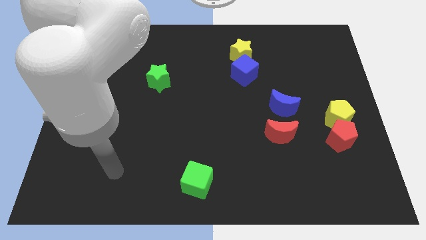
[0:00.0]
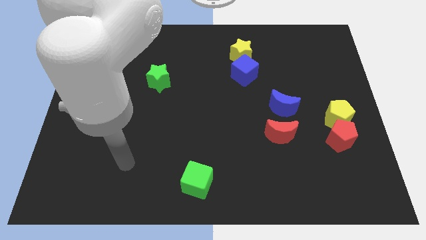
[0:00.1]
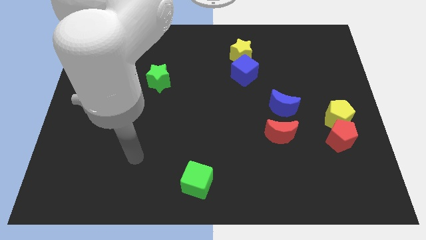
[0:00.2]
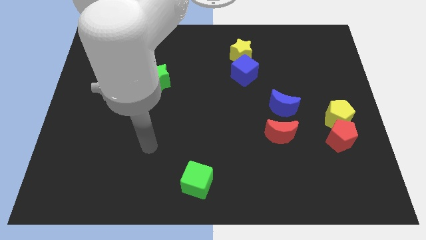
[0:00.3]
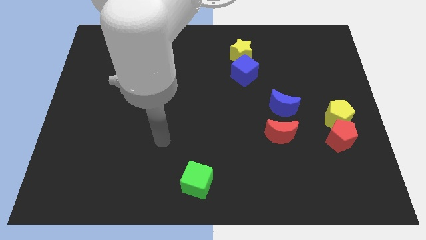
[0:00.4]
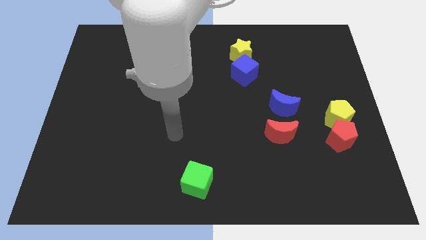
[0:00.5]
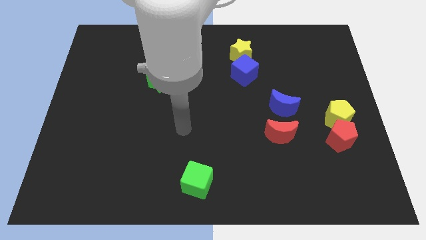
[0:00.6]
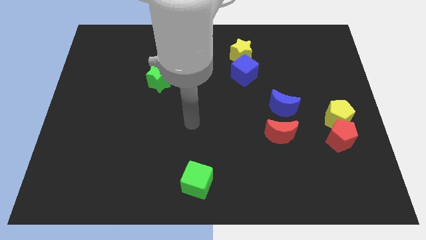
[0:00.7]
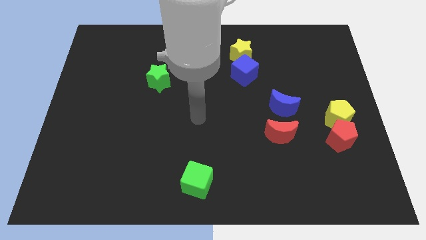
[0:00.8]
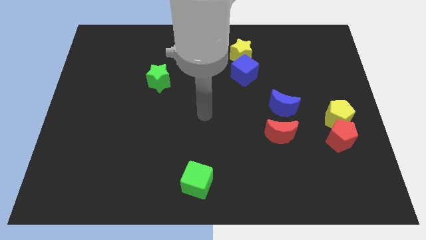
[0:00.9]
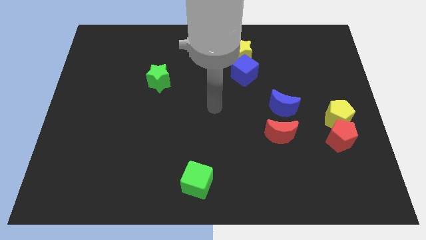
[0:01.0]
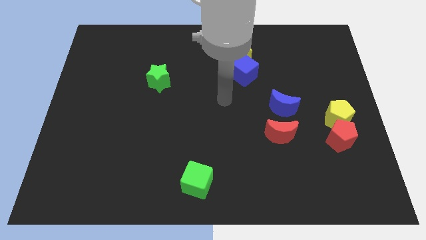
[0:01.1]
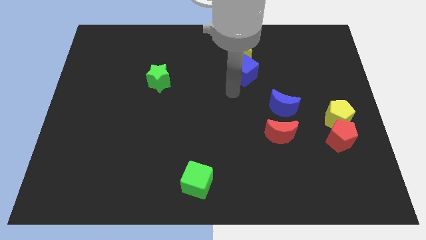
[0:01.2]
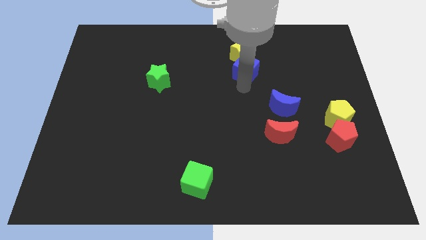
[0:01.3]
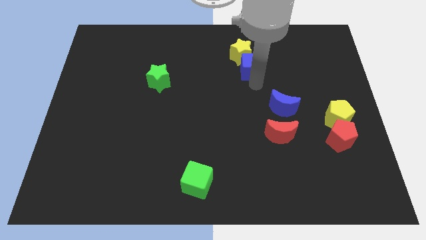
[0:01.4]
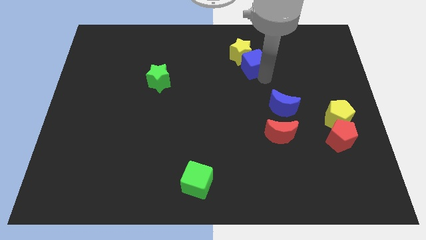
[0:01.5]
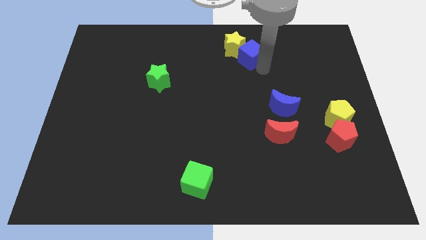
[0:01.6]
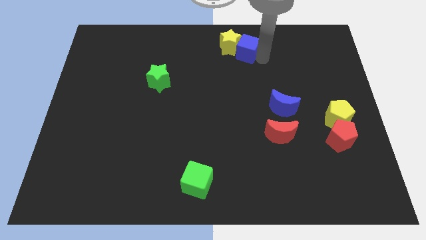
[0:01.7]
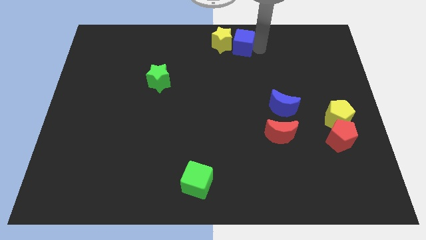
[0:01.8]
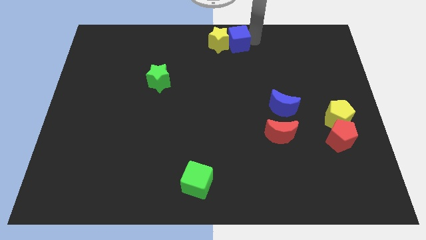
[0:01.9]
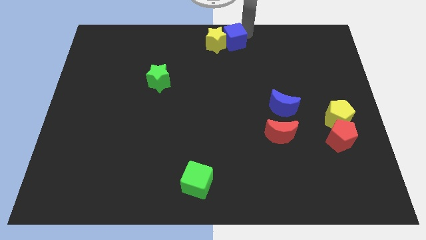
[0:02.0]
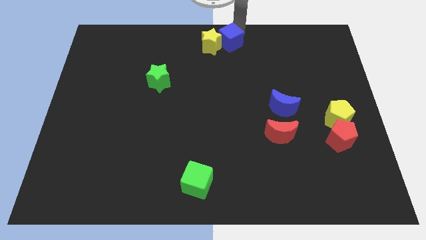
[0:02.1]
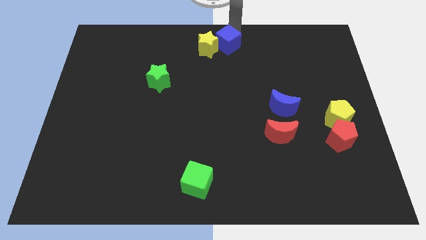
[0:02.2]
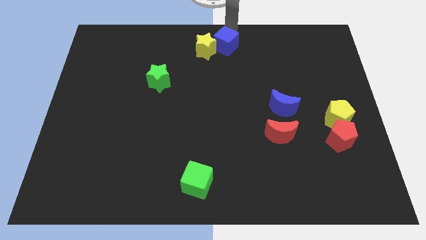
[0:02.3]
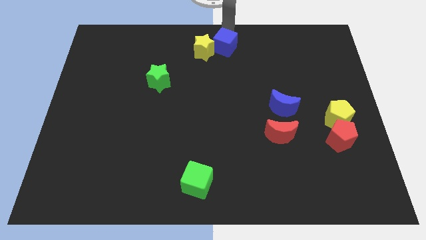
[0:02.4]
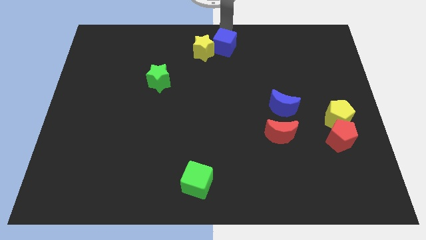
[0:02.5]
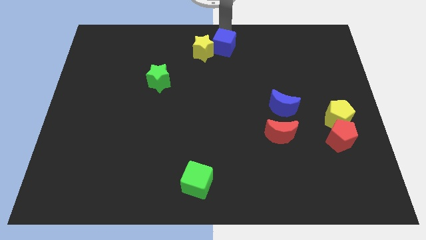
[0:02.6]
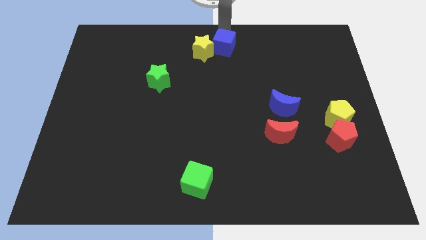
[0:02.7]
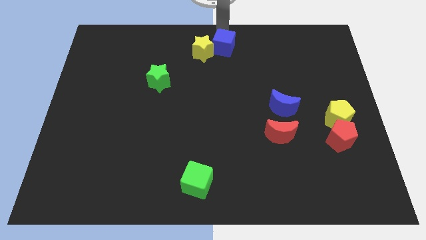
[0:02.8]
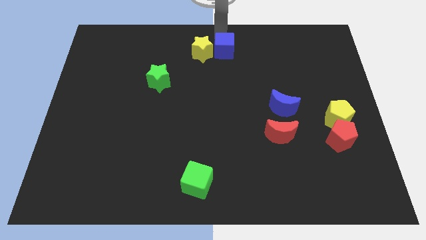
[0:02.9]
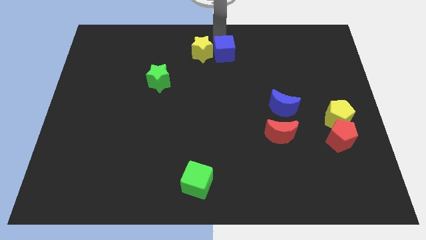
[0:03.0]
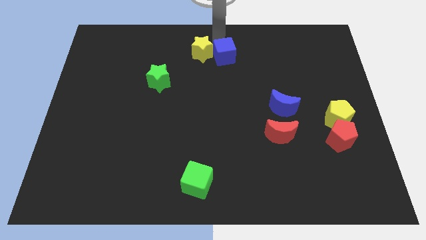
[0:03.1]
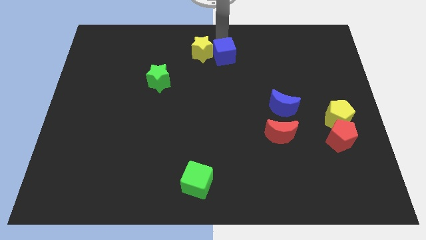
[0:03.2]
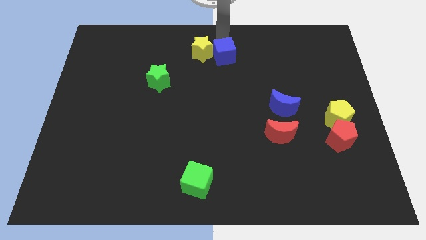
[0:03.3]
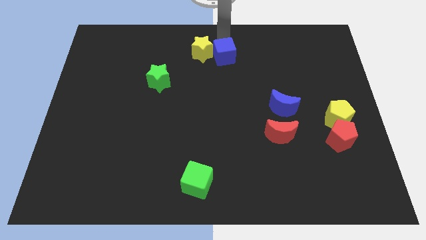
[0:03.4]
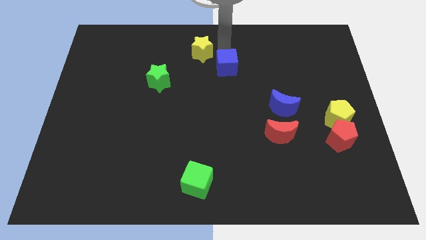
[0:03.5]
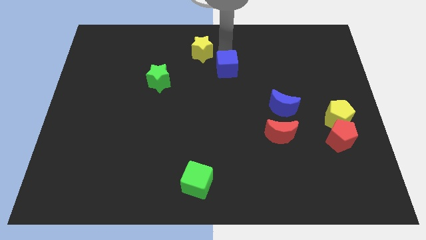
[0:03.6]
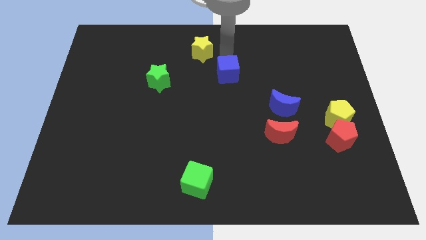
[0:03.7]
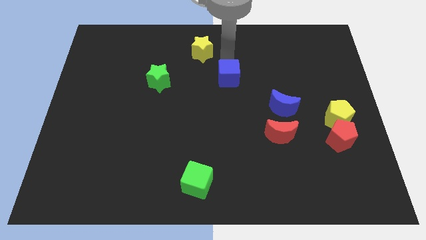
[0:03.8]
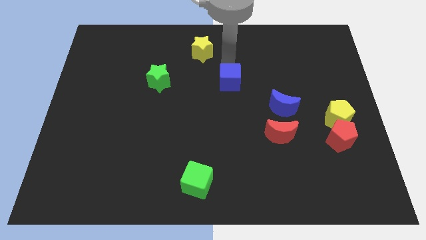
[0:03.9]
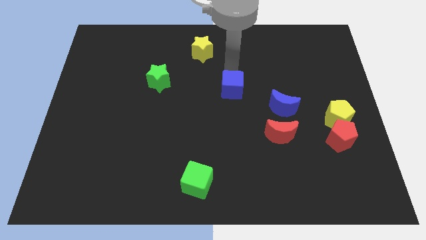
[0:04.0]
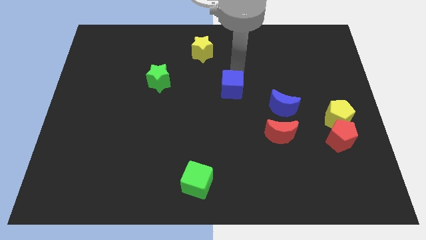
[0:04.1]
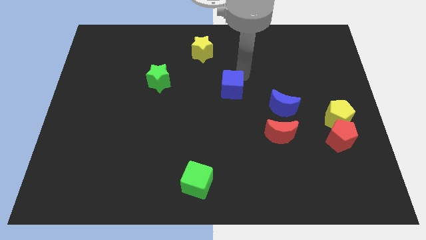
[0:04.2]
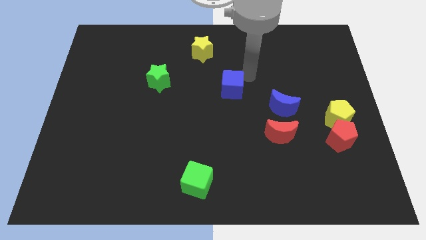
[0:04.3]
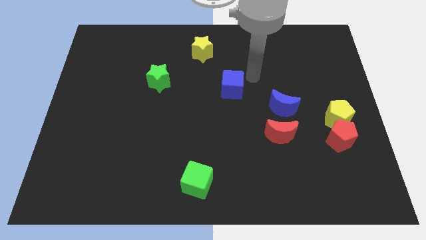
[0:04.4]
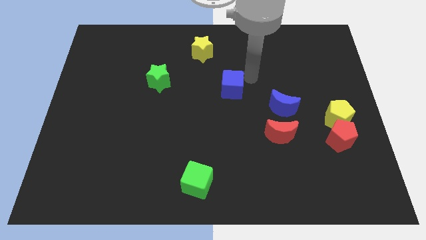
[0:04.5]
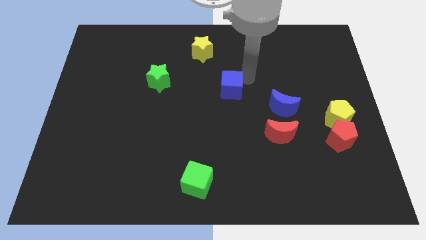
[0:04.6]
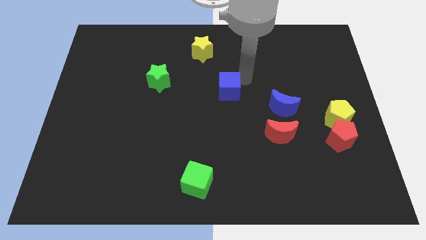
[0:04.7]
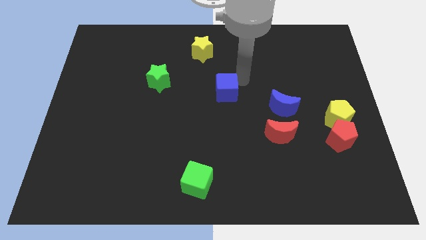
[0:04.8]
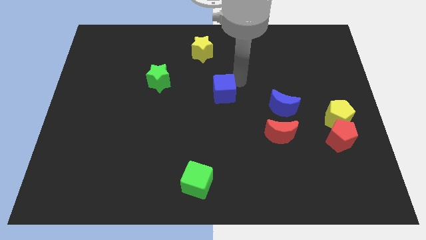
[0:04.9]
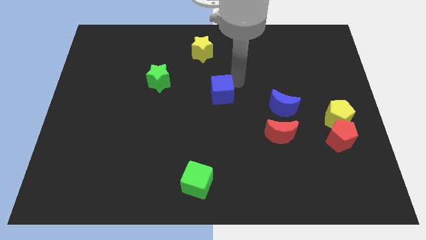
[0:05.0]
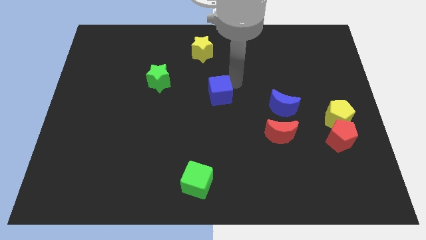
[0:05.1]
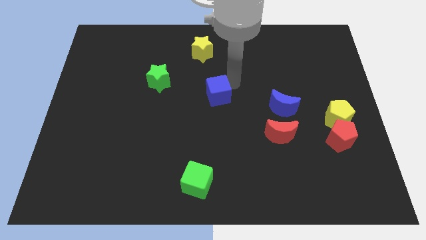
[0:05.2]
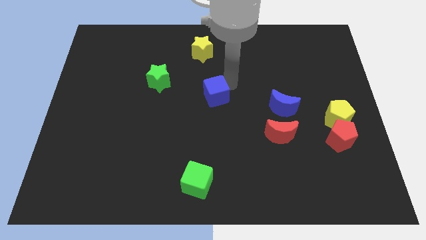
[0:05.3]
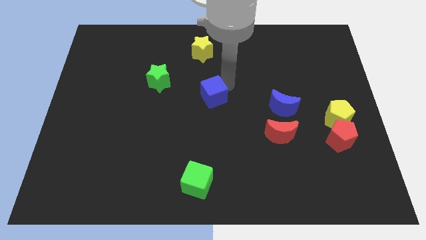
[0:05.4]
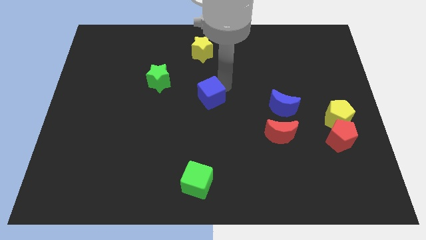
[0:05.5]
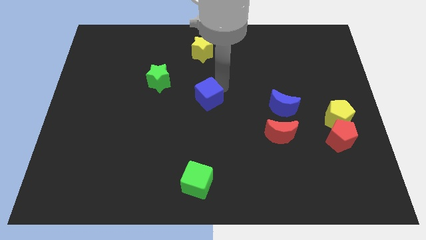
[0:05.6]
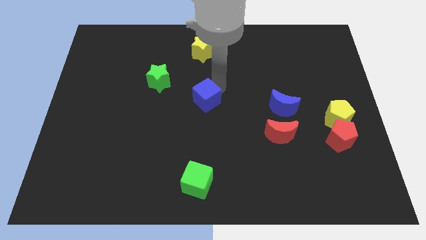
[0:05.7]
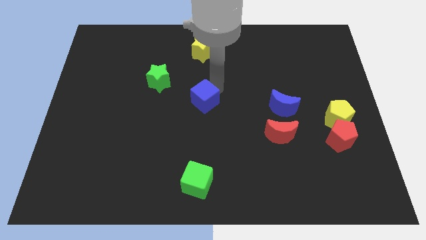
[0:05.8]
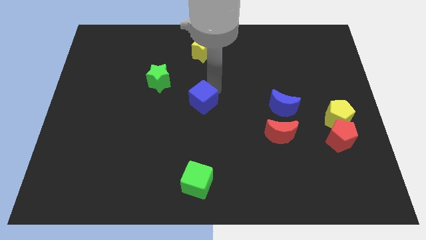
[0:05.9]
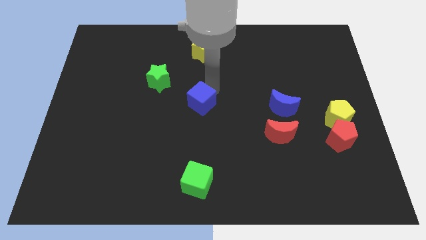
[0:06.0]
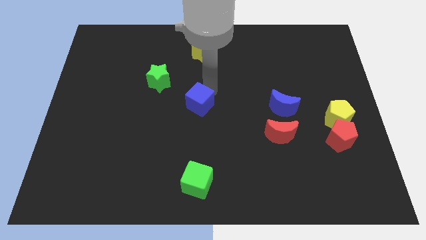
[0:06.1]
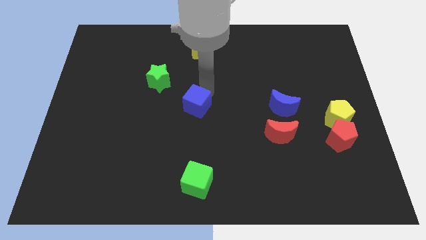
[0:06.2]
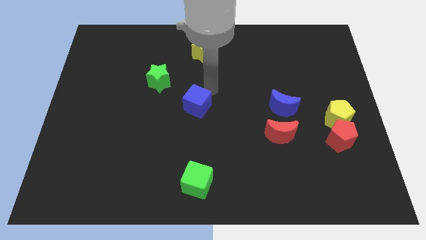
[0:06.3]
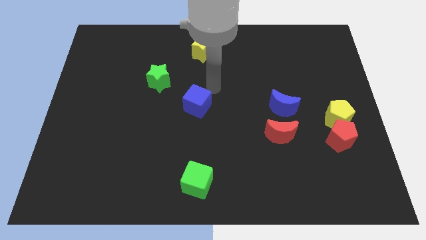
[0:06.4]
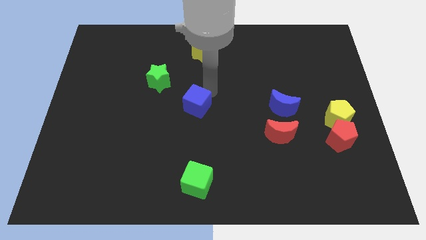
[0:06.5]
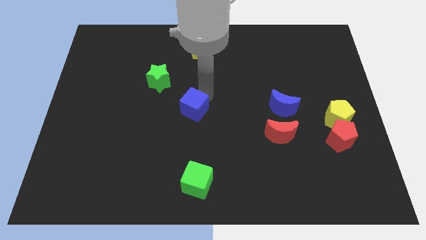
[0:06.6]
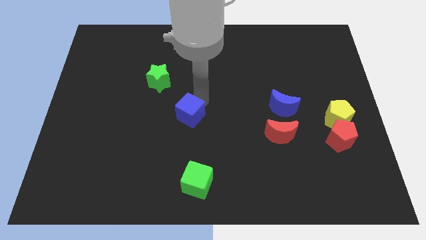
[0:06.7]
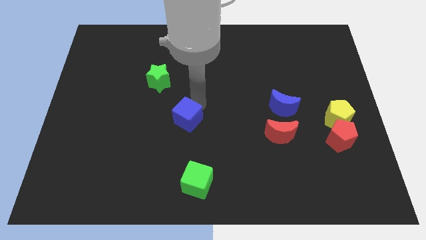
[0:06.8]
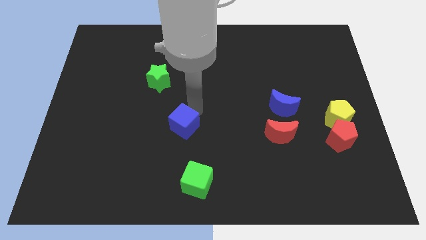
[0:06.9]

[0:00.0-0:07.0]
move the blue cube downwards and left diagonally

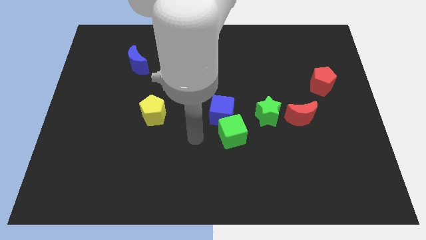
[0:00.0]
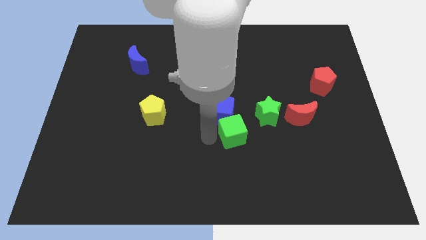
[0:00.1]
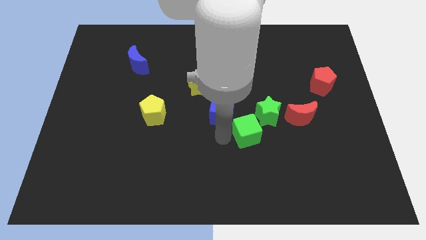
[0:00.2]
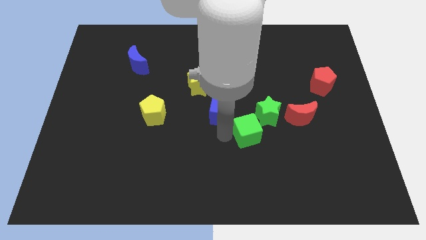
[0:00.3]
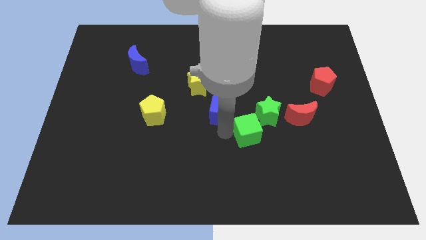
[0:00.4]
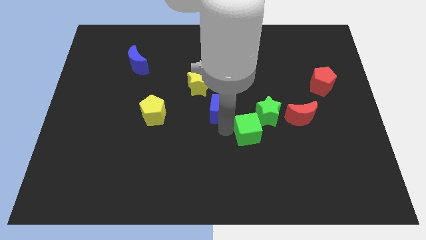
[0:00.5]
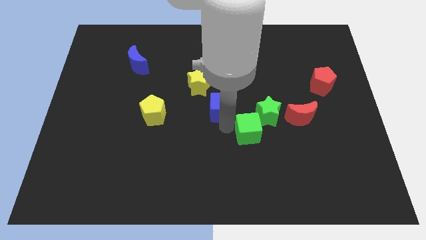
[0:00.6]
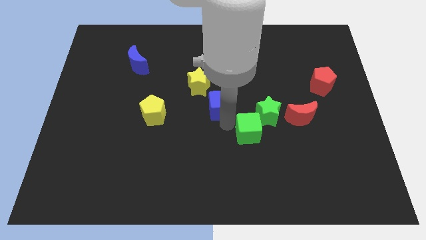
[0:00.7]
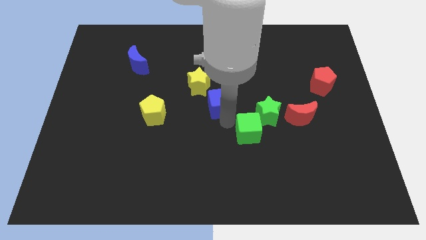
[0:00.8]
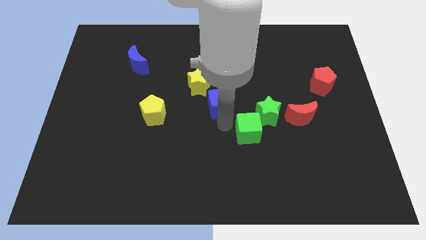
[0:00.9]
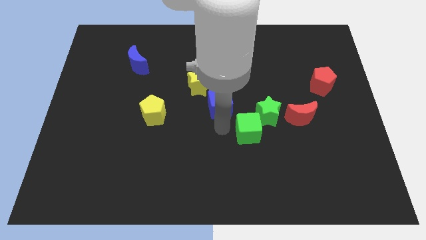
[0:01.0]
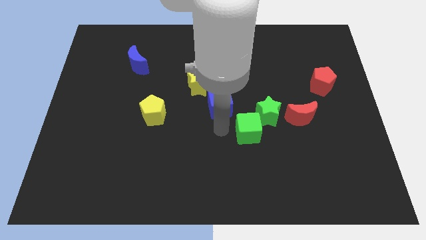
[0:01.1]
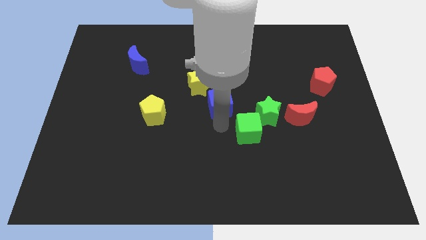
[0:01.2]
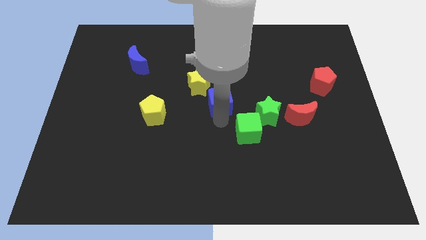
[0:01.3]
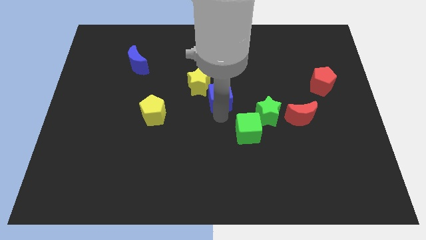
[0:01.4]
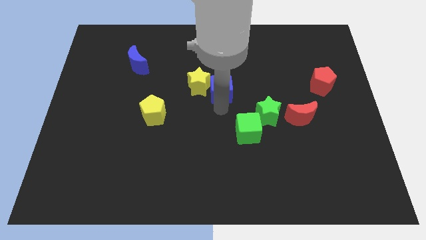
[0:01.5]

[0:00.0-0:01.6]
slide the blue cube upwards slightly
